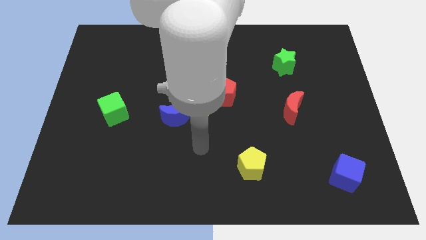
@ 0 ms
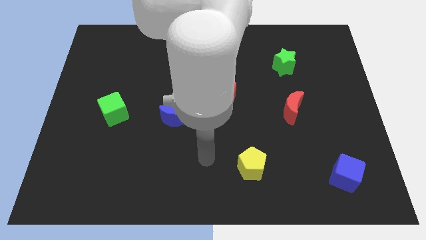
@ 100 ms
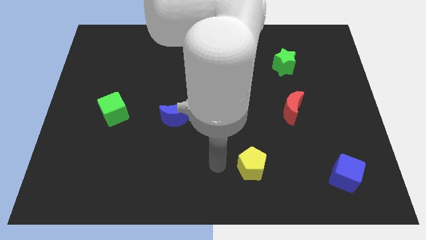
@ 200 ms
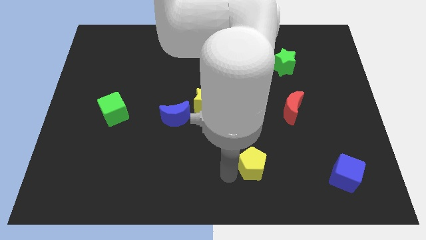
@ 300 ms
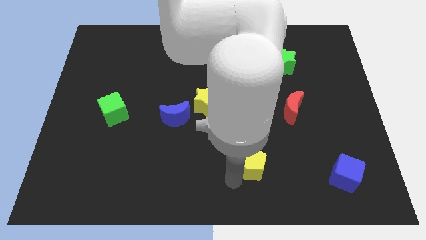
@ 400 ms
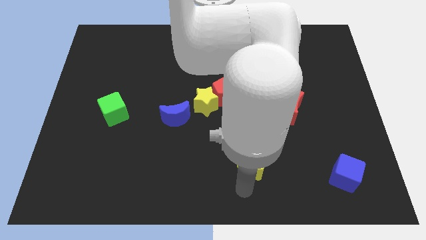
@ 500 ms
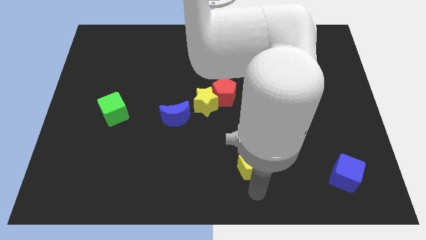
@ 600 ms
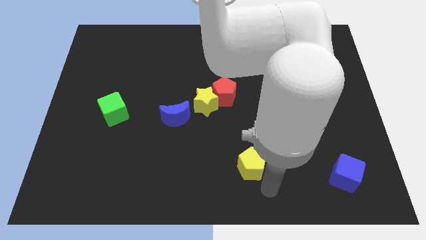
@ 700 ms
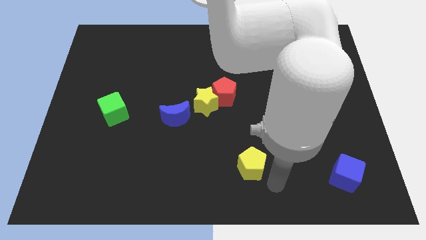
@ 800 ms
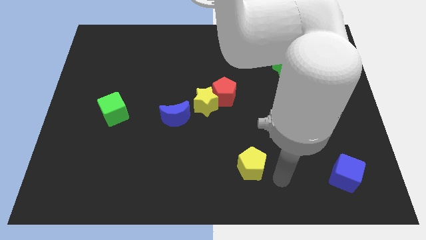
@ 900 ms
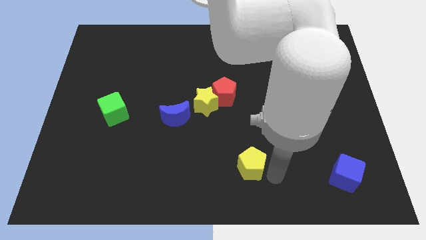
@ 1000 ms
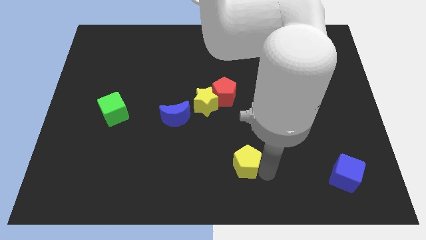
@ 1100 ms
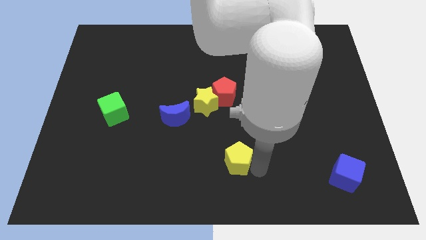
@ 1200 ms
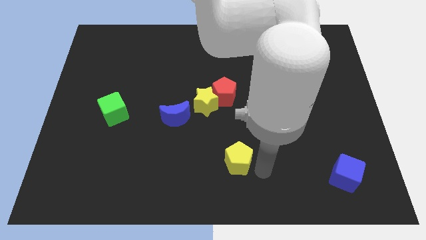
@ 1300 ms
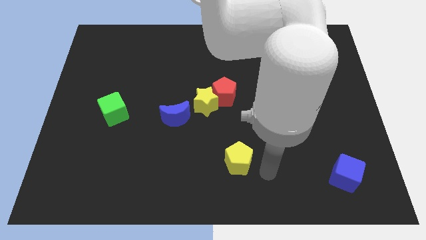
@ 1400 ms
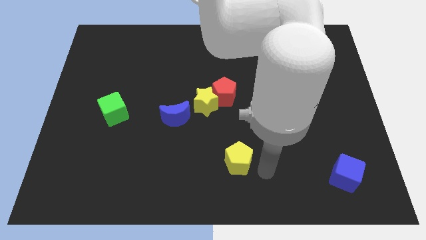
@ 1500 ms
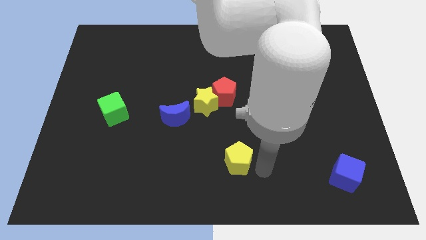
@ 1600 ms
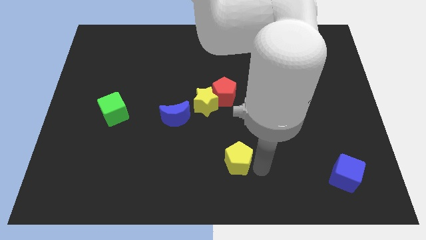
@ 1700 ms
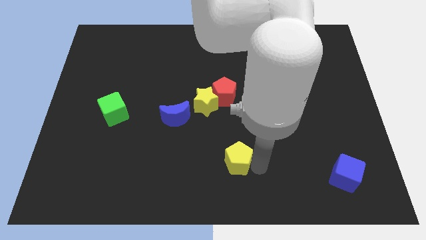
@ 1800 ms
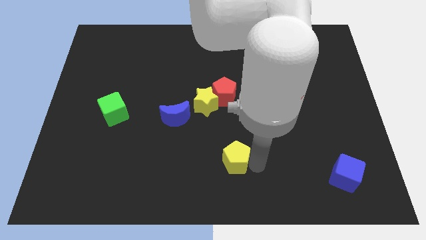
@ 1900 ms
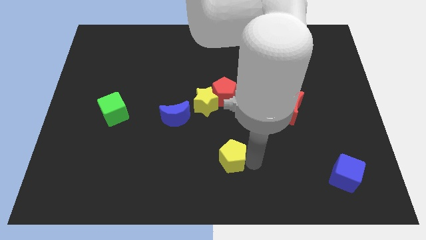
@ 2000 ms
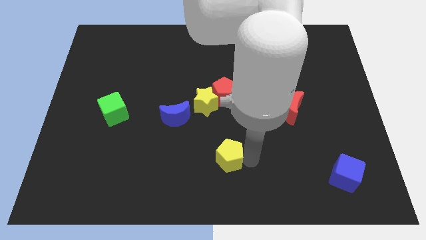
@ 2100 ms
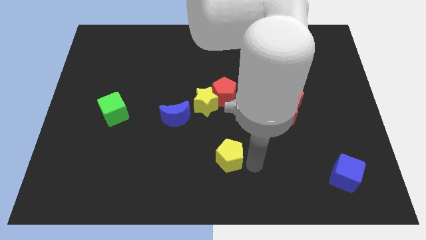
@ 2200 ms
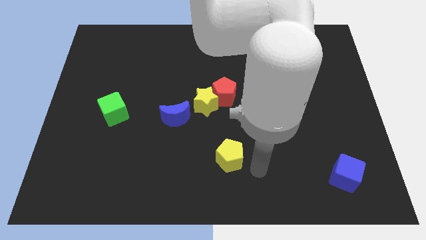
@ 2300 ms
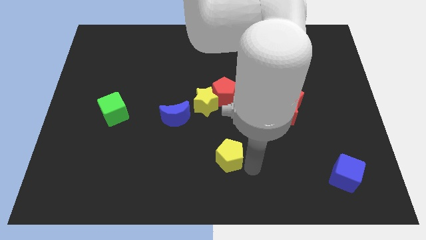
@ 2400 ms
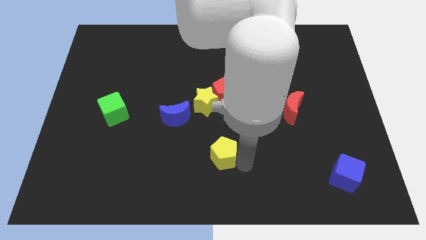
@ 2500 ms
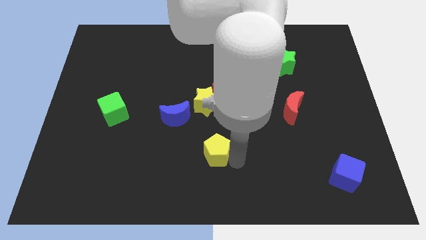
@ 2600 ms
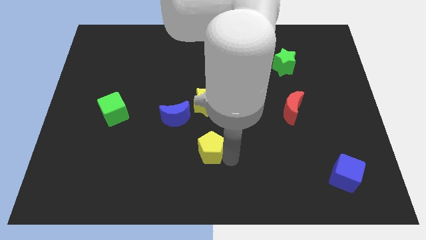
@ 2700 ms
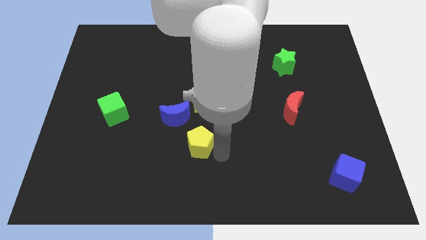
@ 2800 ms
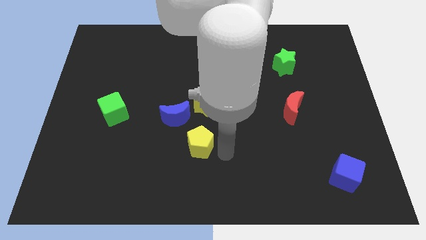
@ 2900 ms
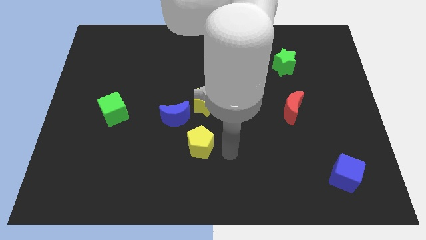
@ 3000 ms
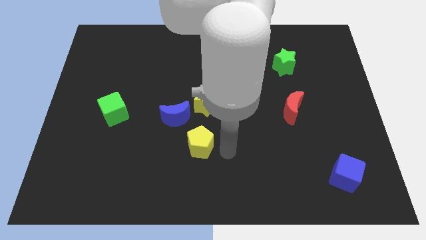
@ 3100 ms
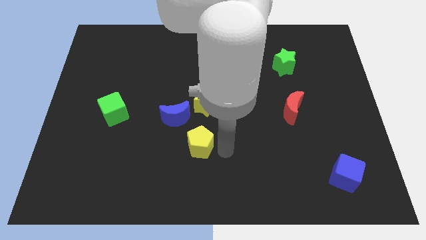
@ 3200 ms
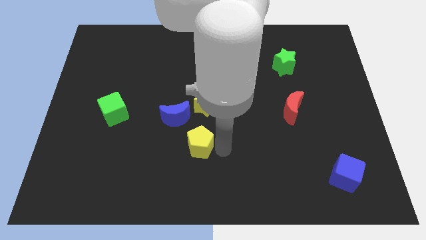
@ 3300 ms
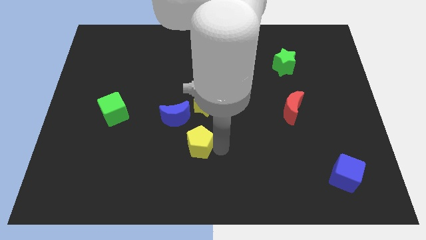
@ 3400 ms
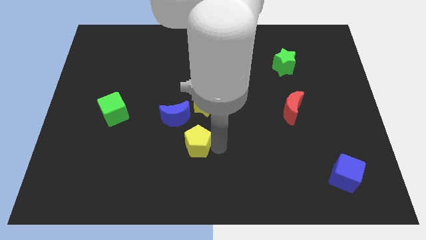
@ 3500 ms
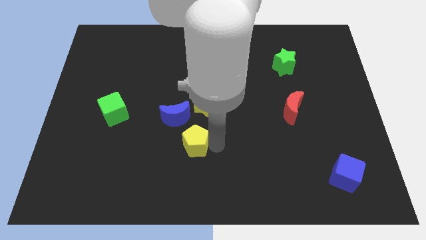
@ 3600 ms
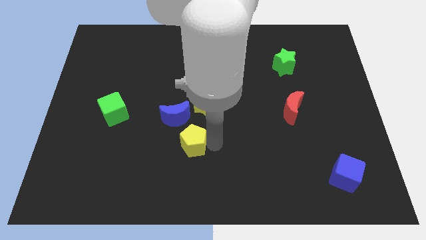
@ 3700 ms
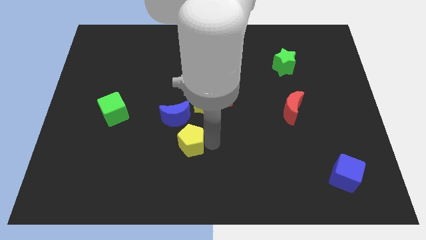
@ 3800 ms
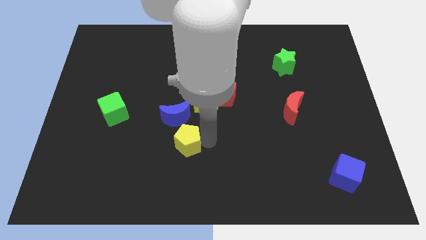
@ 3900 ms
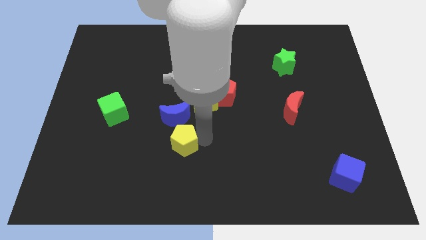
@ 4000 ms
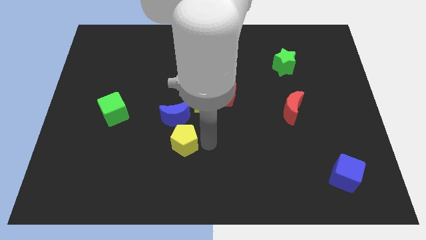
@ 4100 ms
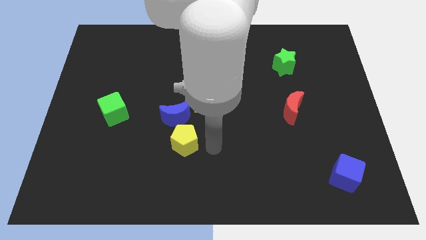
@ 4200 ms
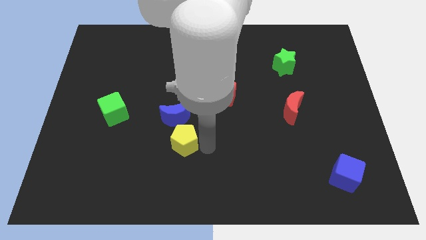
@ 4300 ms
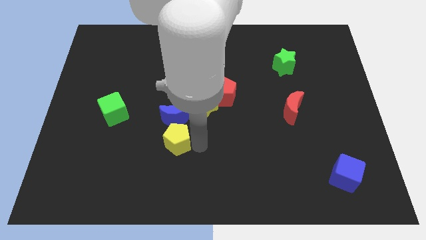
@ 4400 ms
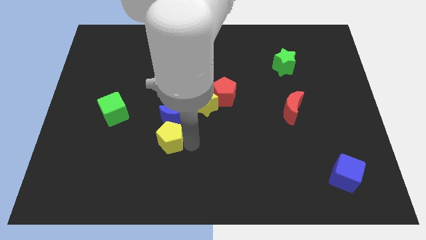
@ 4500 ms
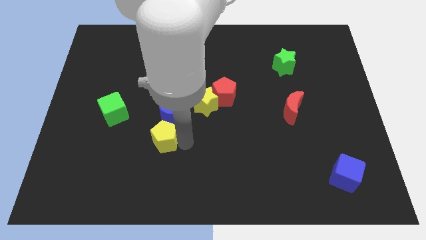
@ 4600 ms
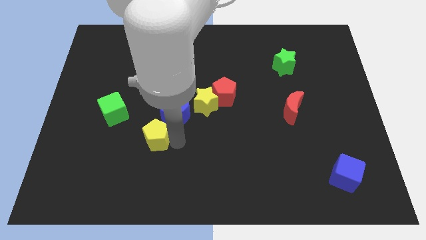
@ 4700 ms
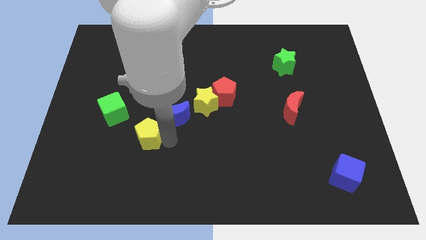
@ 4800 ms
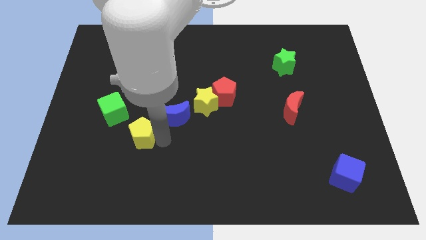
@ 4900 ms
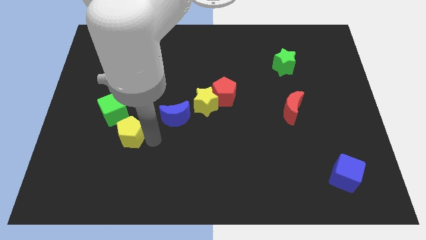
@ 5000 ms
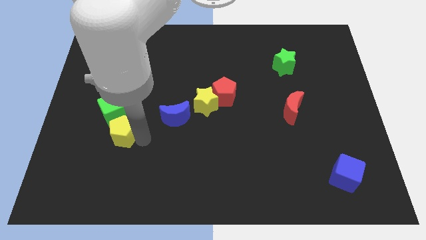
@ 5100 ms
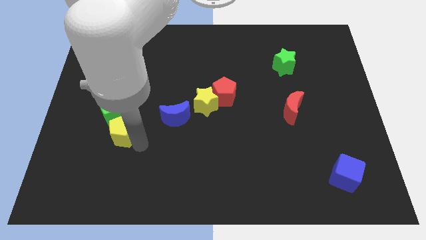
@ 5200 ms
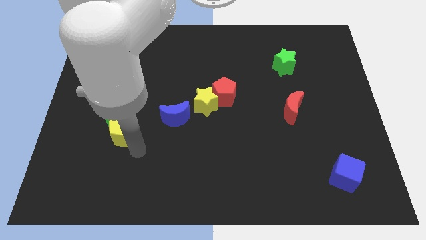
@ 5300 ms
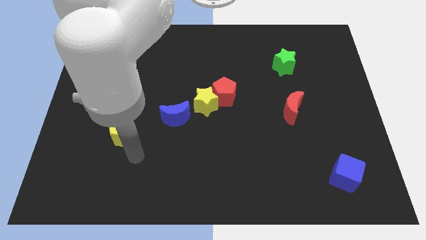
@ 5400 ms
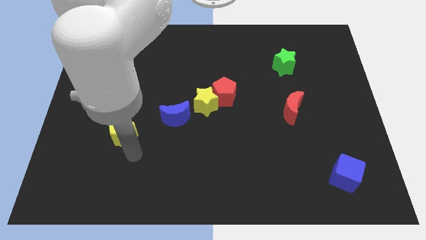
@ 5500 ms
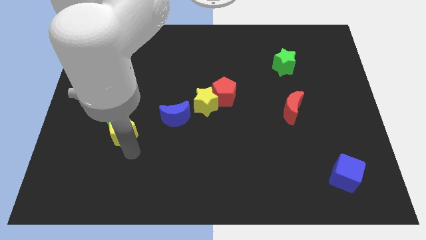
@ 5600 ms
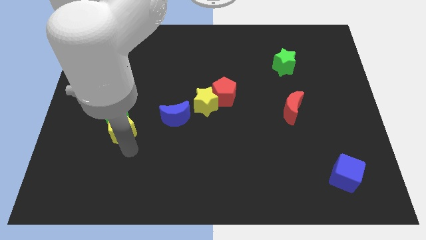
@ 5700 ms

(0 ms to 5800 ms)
push the yellow pentagon next to the green cube
